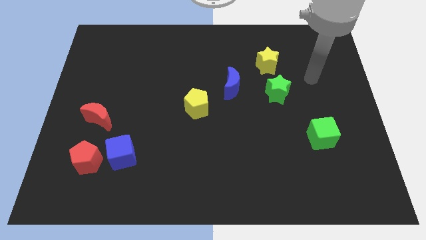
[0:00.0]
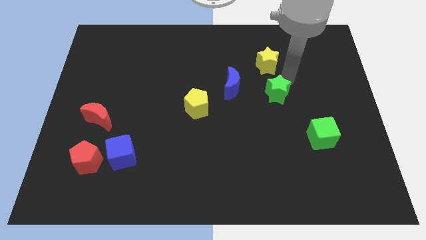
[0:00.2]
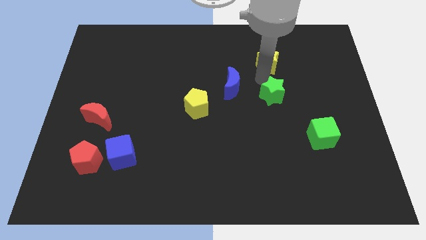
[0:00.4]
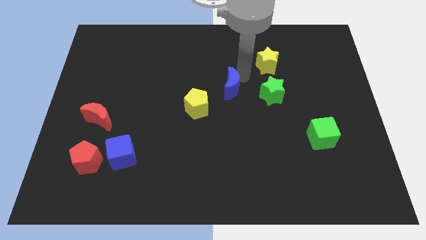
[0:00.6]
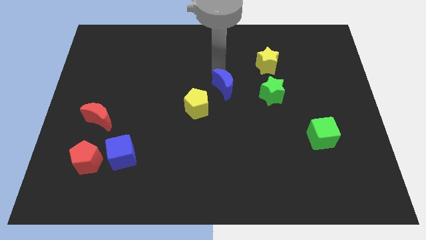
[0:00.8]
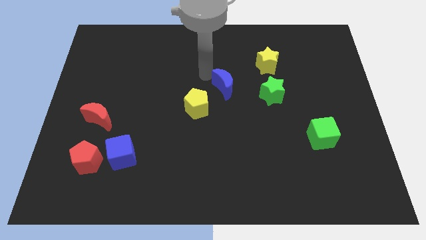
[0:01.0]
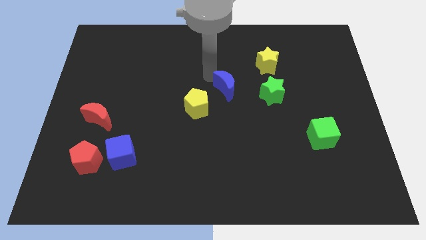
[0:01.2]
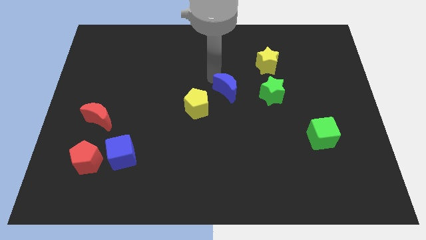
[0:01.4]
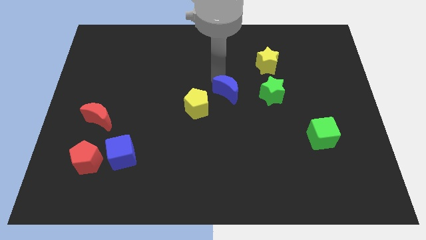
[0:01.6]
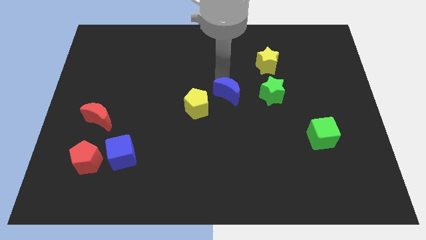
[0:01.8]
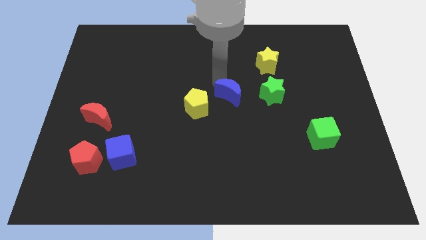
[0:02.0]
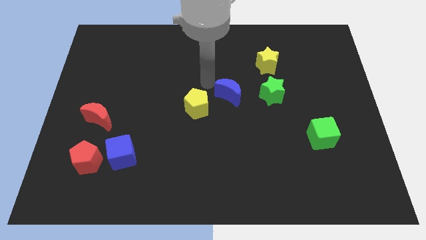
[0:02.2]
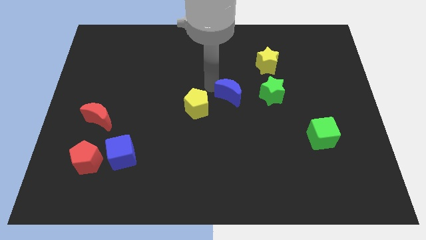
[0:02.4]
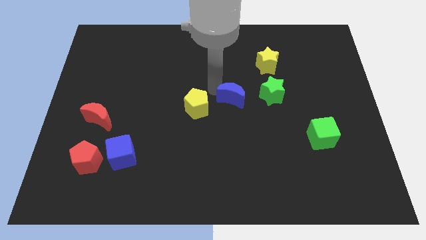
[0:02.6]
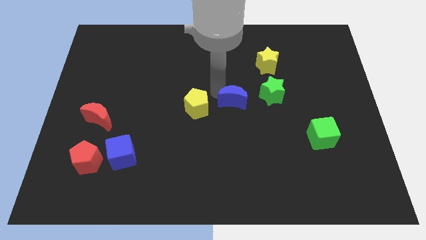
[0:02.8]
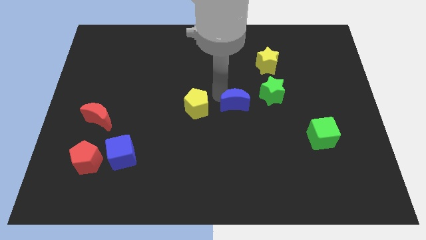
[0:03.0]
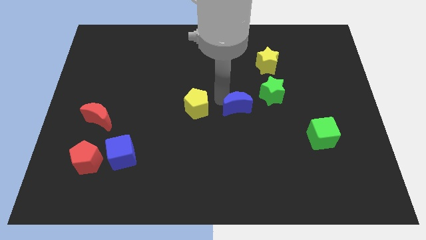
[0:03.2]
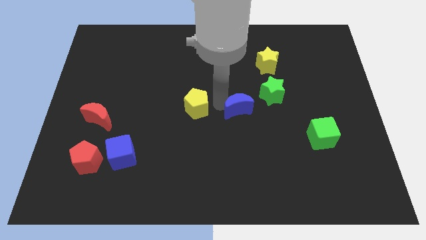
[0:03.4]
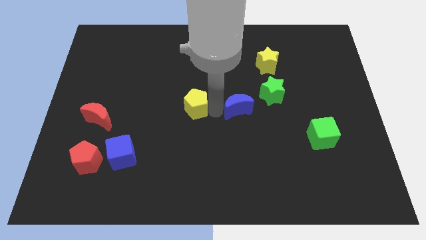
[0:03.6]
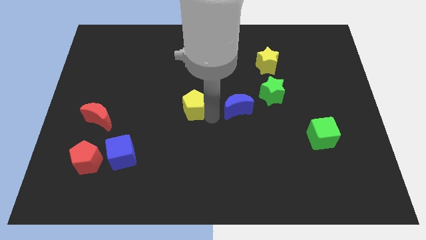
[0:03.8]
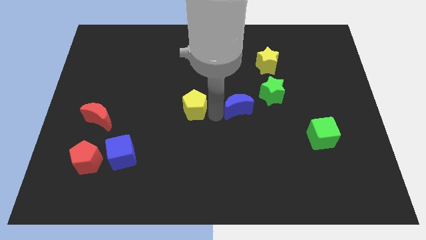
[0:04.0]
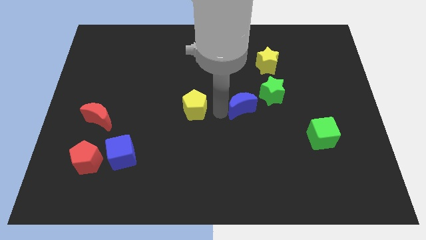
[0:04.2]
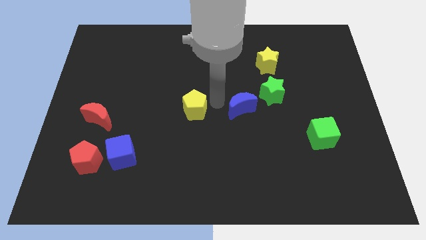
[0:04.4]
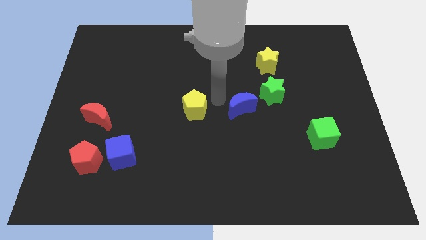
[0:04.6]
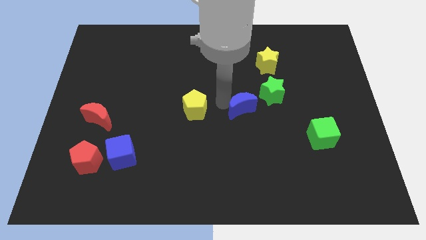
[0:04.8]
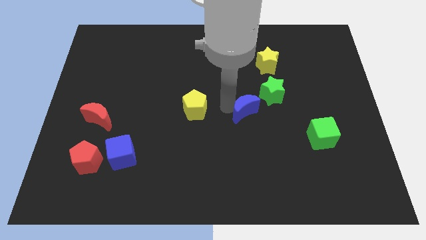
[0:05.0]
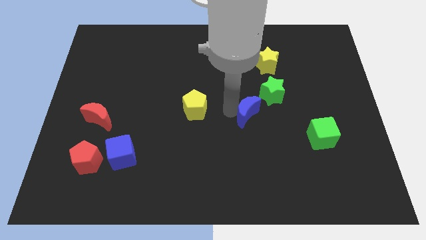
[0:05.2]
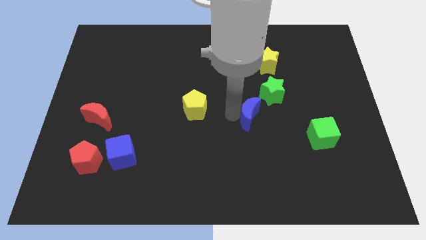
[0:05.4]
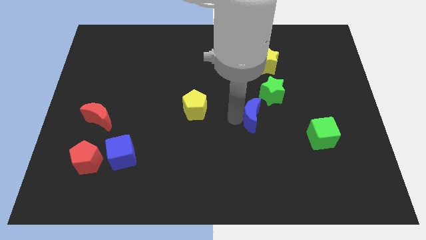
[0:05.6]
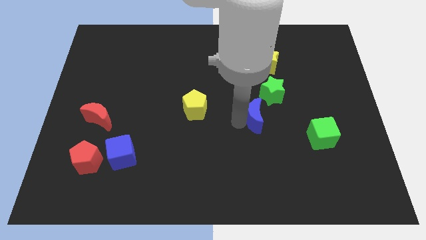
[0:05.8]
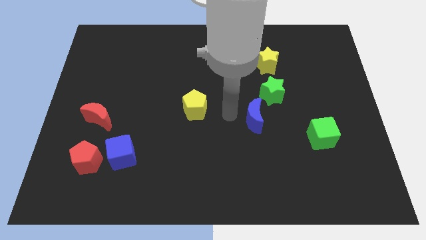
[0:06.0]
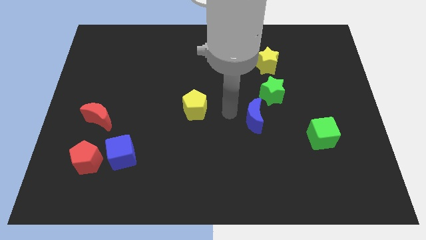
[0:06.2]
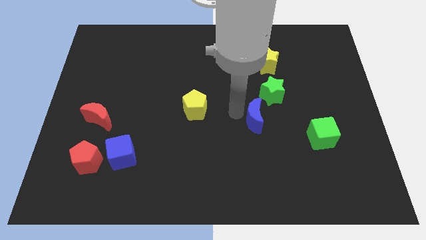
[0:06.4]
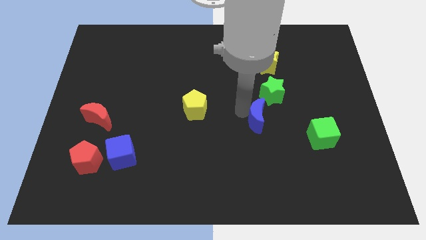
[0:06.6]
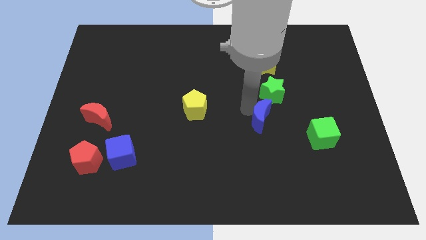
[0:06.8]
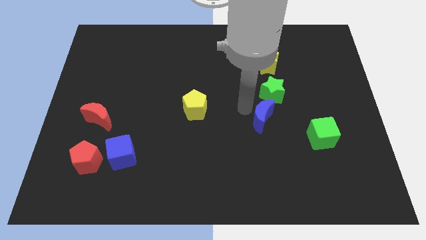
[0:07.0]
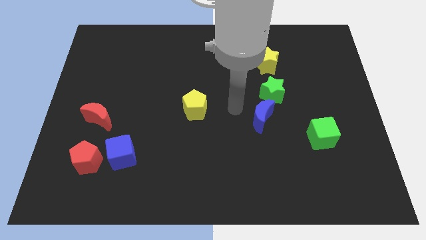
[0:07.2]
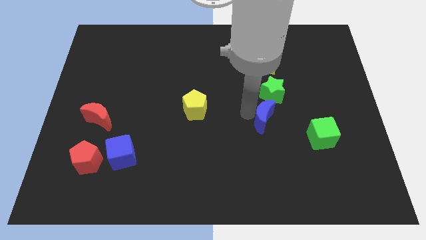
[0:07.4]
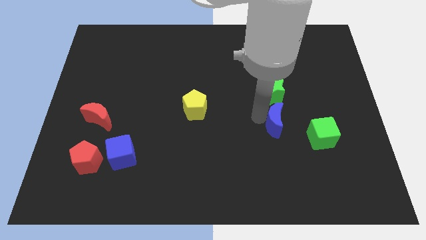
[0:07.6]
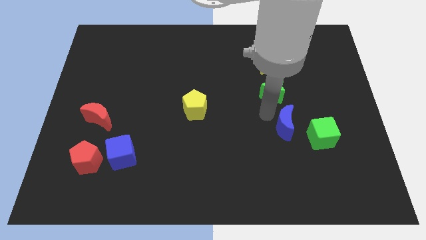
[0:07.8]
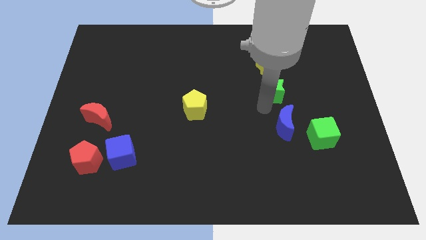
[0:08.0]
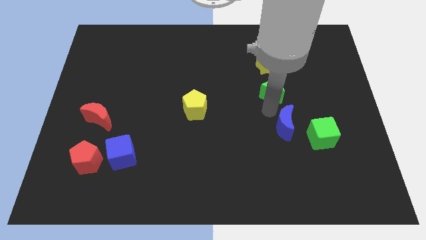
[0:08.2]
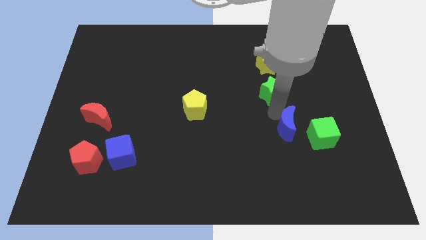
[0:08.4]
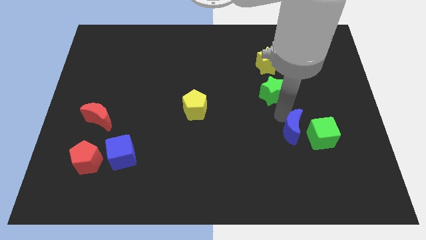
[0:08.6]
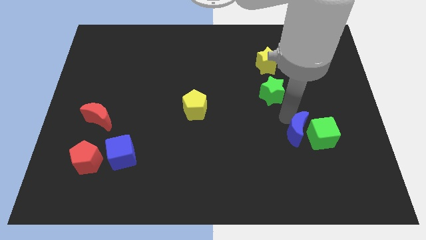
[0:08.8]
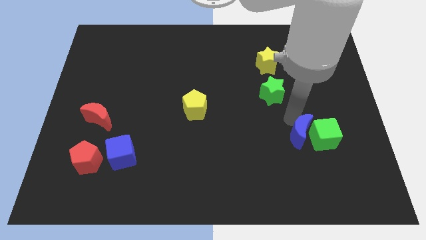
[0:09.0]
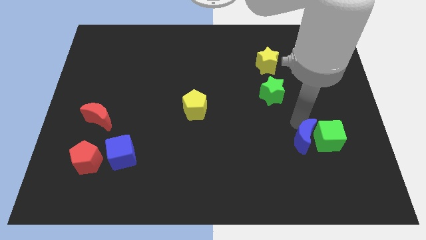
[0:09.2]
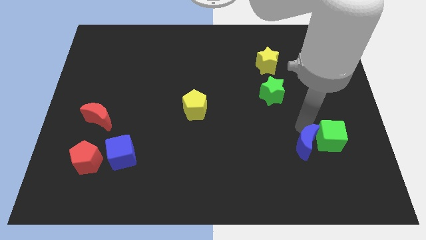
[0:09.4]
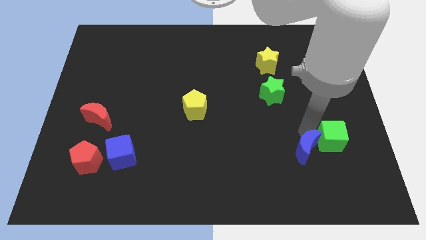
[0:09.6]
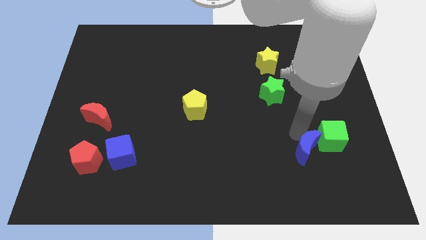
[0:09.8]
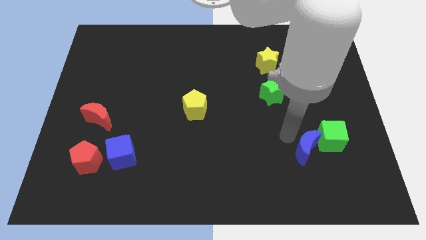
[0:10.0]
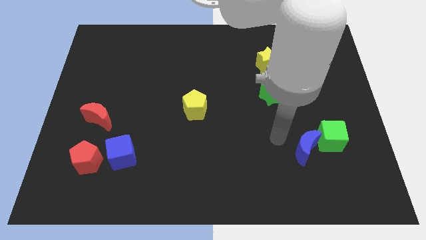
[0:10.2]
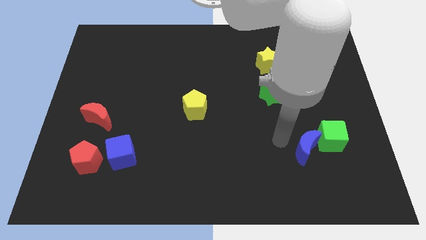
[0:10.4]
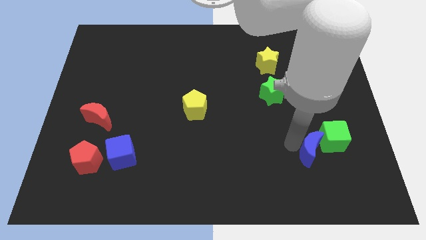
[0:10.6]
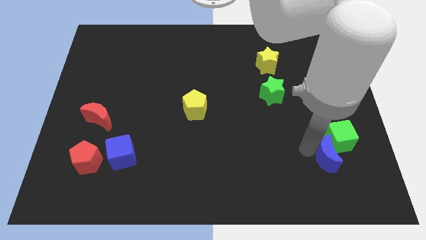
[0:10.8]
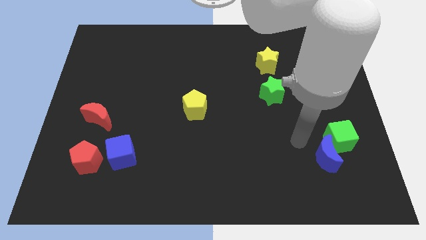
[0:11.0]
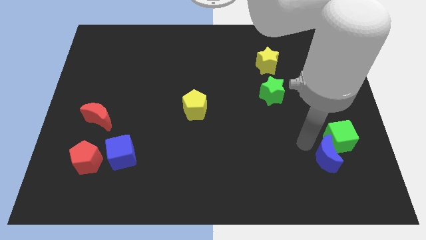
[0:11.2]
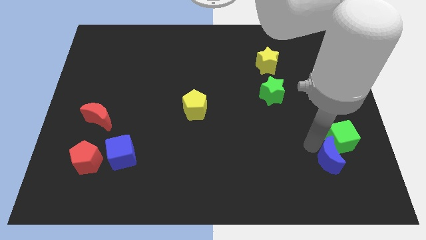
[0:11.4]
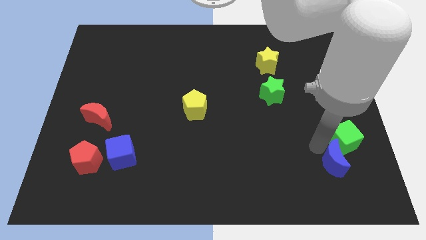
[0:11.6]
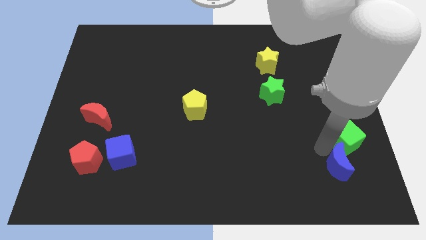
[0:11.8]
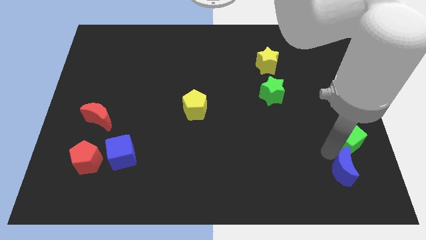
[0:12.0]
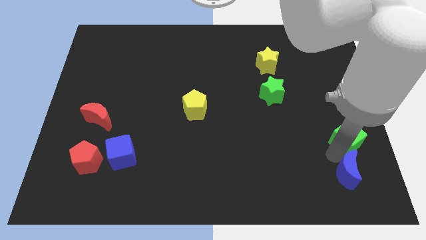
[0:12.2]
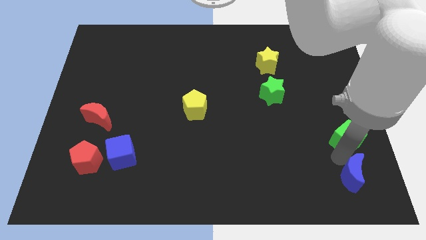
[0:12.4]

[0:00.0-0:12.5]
slide the blue moon to the bottom right
